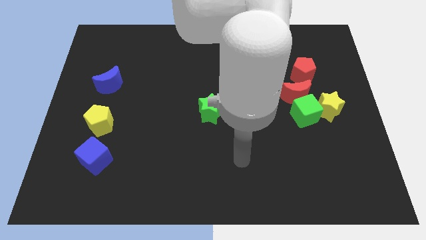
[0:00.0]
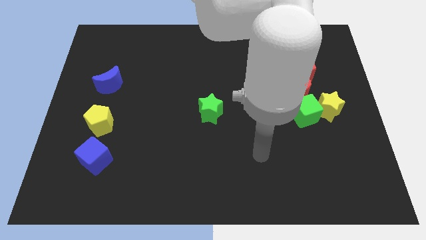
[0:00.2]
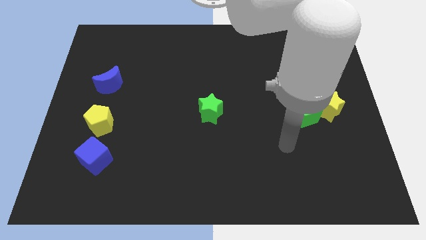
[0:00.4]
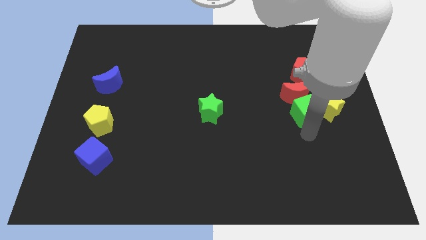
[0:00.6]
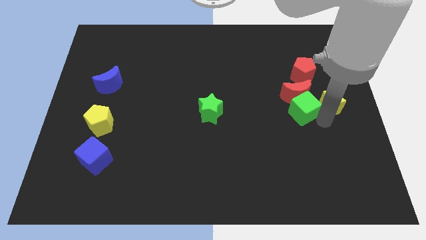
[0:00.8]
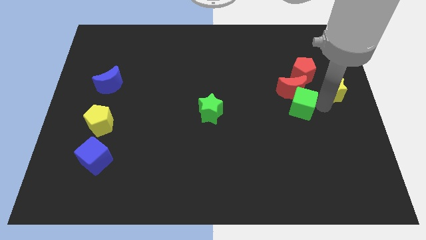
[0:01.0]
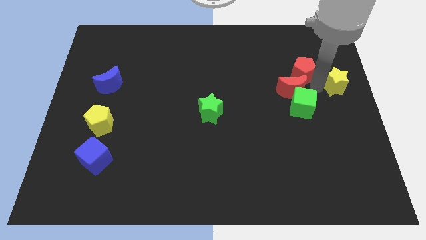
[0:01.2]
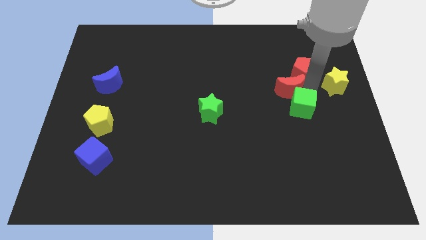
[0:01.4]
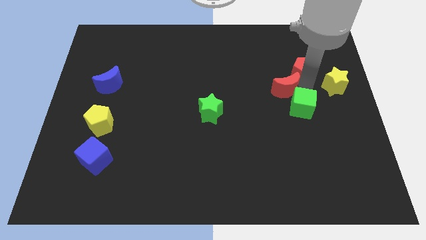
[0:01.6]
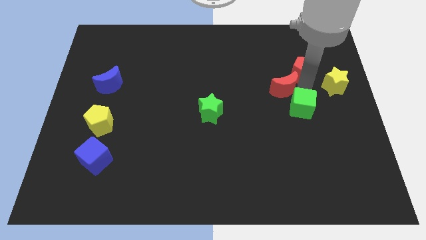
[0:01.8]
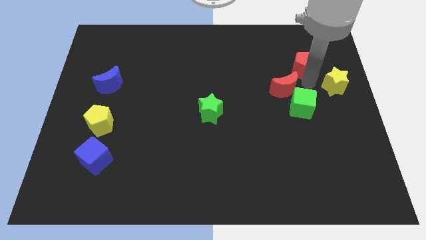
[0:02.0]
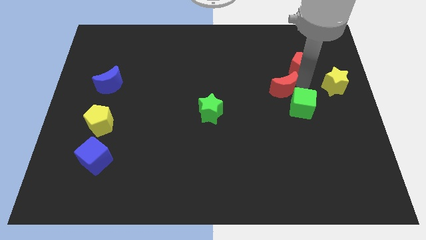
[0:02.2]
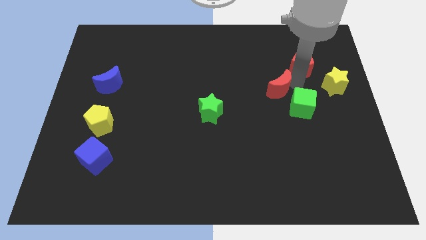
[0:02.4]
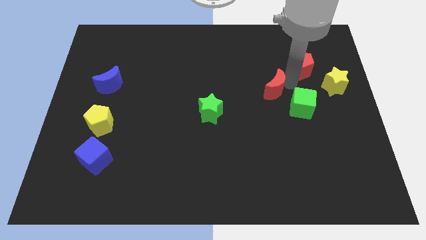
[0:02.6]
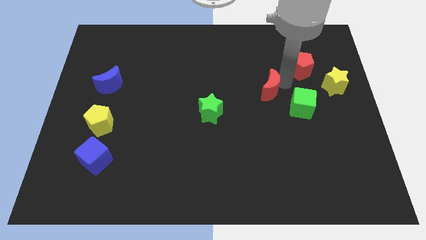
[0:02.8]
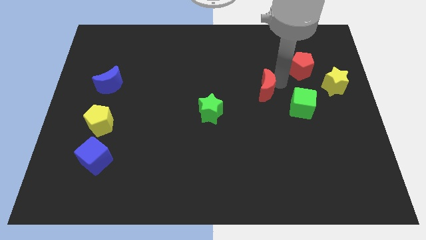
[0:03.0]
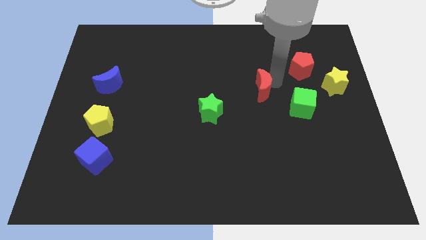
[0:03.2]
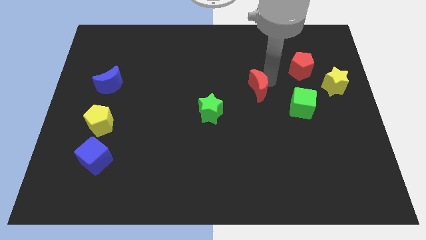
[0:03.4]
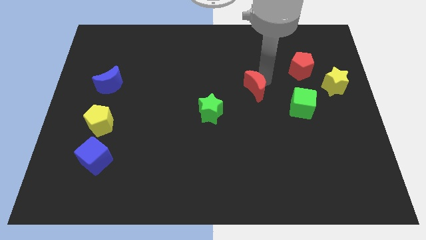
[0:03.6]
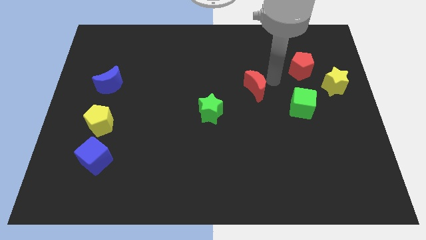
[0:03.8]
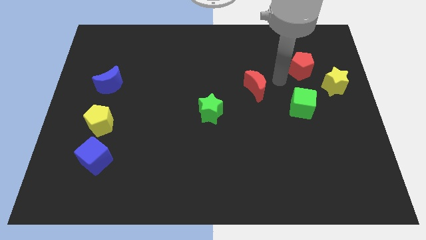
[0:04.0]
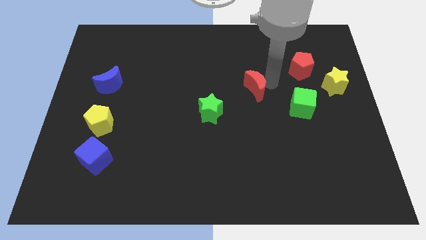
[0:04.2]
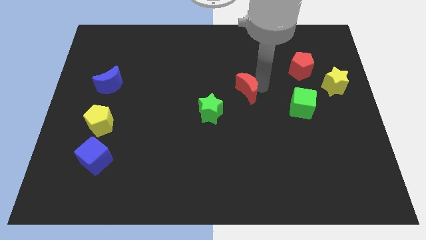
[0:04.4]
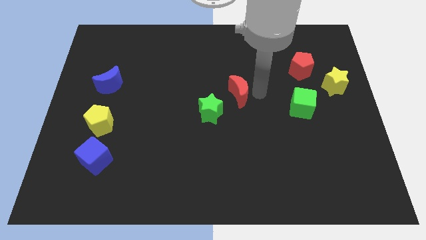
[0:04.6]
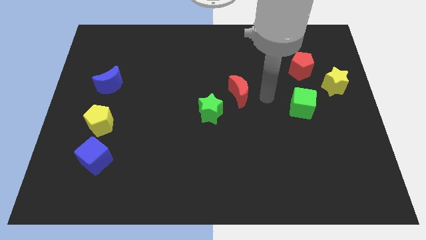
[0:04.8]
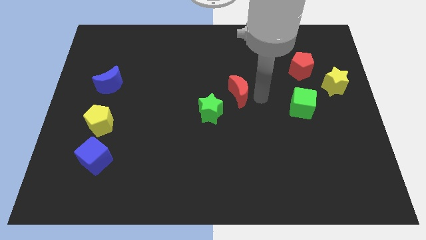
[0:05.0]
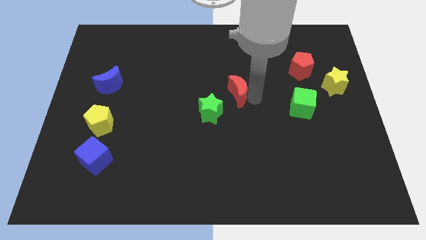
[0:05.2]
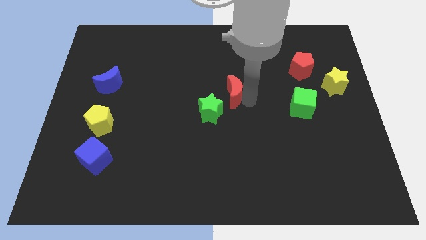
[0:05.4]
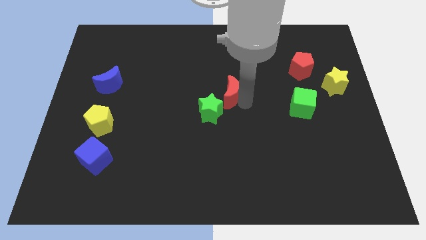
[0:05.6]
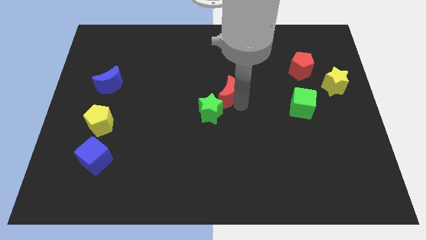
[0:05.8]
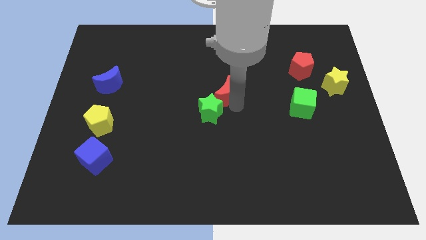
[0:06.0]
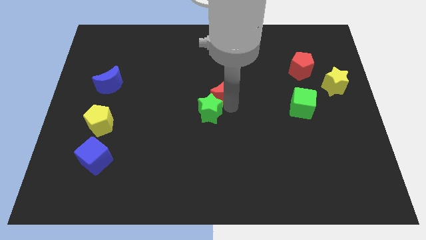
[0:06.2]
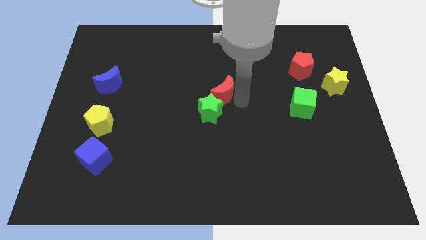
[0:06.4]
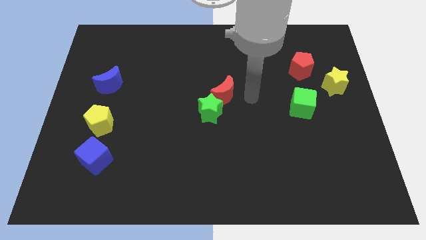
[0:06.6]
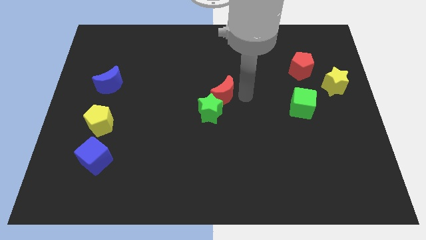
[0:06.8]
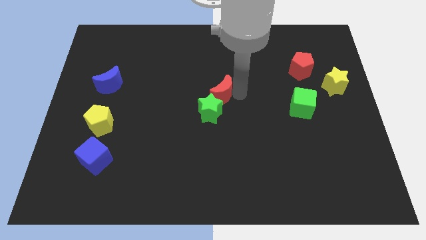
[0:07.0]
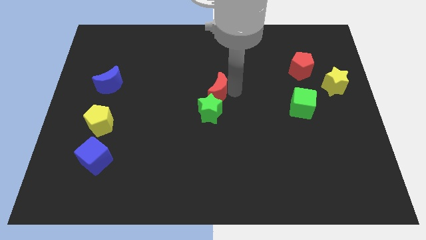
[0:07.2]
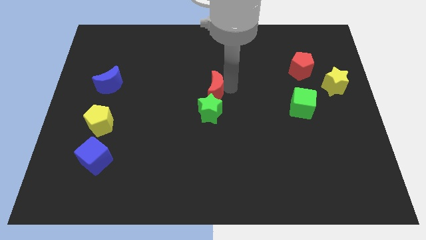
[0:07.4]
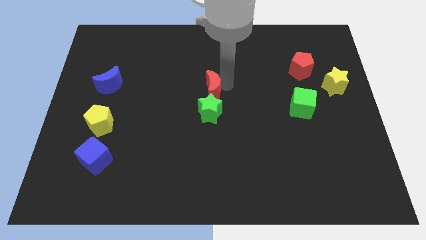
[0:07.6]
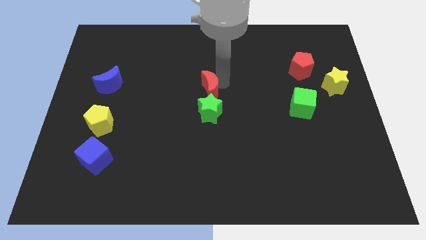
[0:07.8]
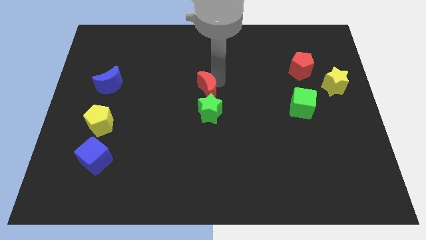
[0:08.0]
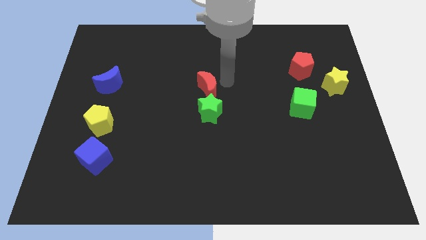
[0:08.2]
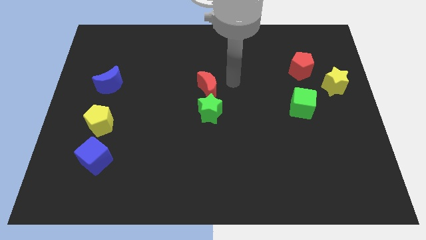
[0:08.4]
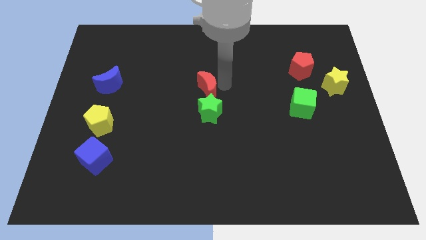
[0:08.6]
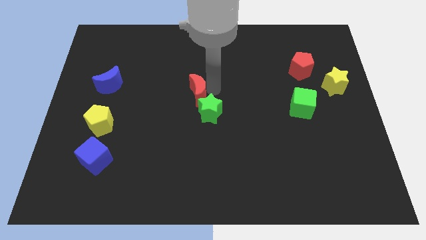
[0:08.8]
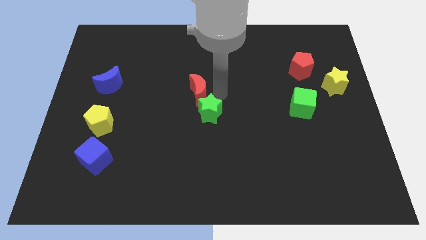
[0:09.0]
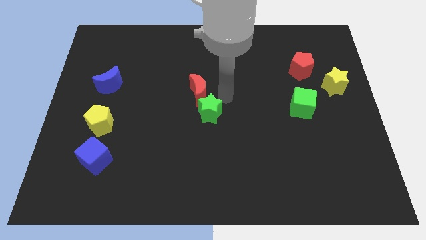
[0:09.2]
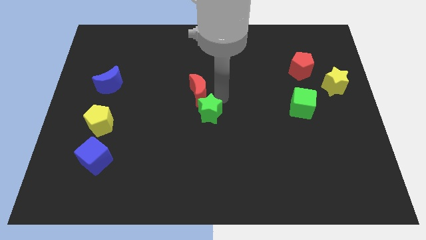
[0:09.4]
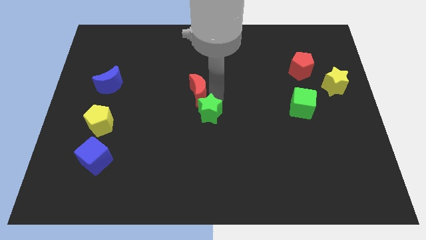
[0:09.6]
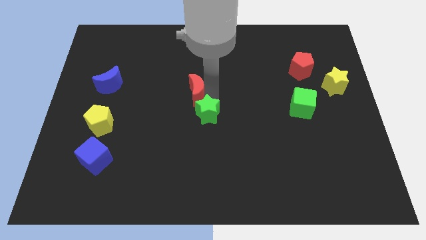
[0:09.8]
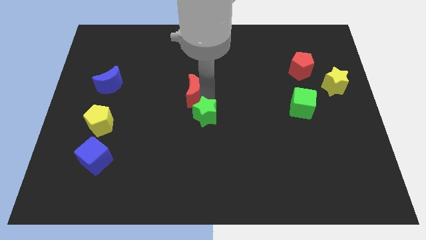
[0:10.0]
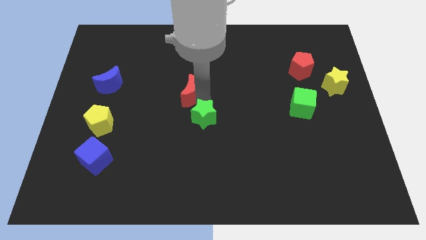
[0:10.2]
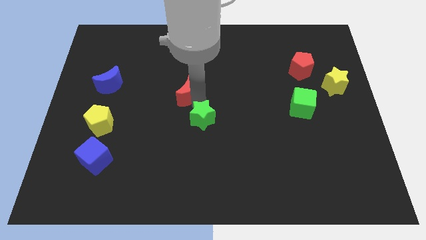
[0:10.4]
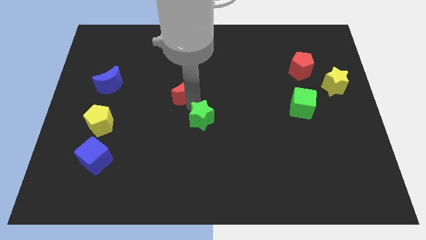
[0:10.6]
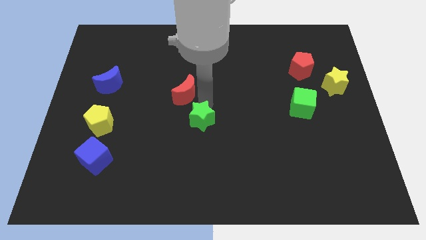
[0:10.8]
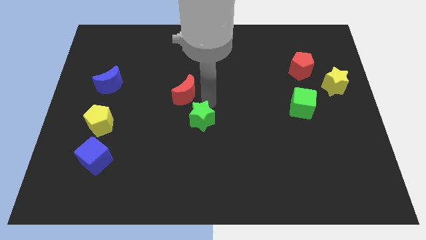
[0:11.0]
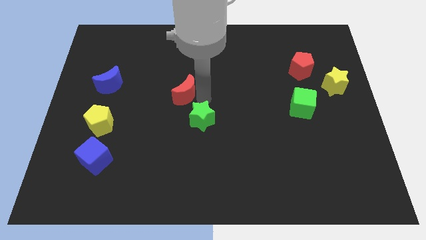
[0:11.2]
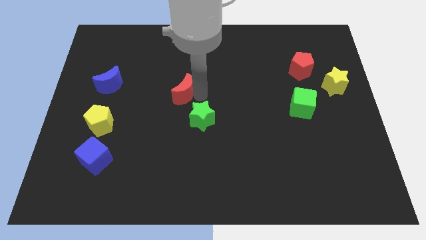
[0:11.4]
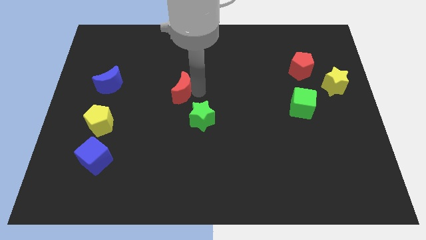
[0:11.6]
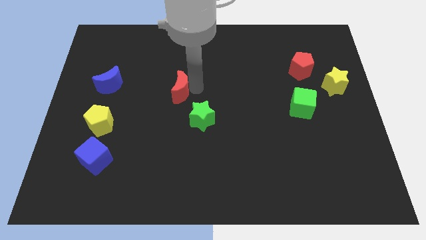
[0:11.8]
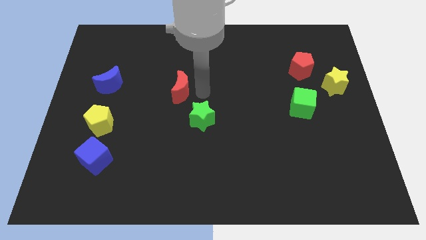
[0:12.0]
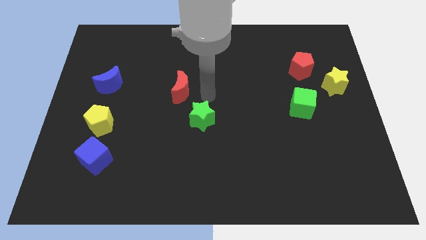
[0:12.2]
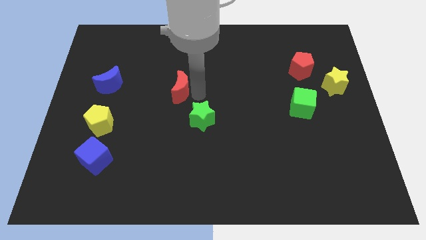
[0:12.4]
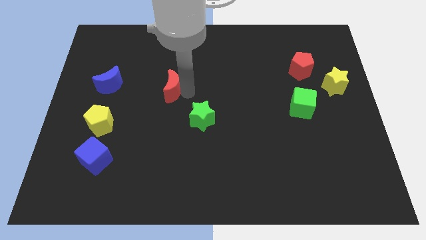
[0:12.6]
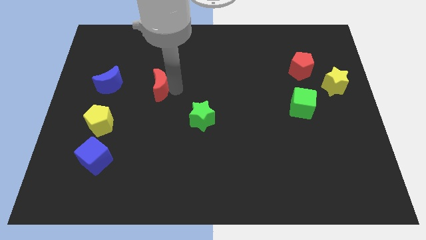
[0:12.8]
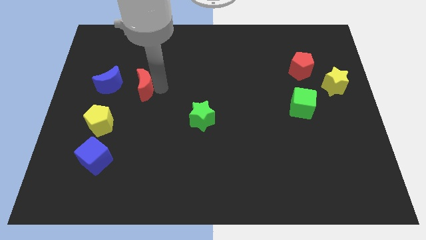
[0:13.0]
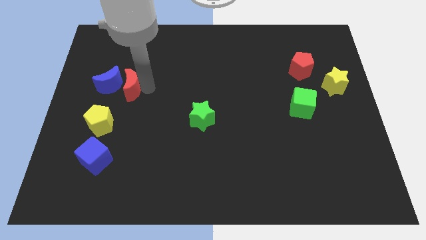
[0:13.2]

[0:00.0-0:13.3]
slide the red moon towards the blue moon

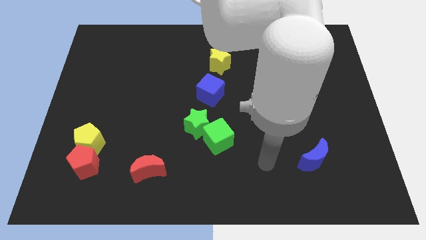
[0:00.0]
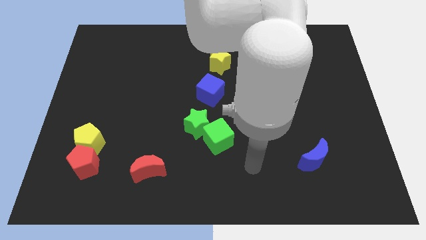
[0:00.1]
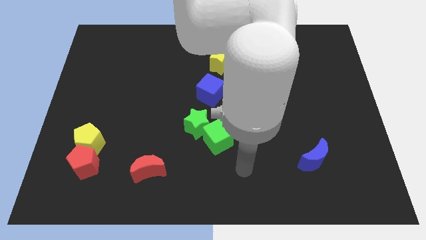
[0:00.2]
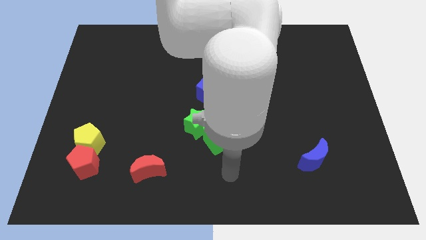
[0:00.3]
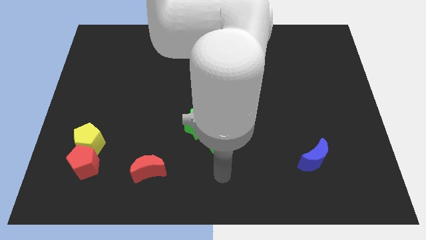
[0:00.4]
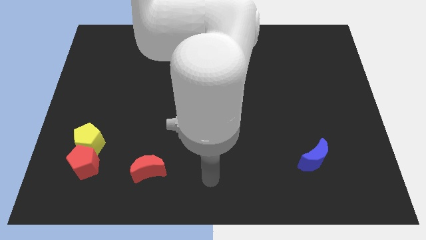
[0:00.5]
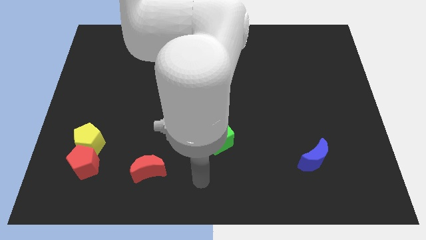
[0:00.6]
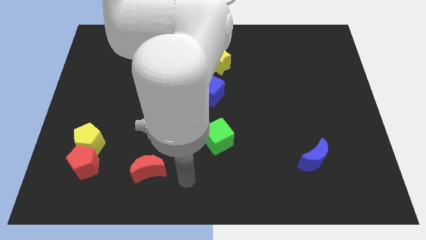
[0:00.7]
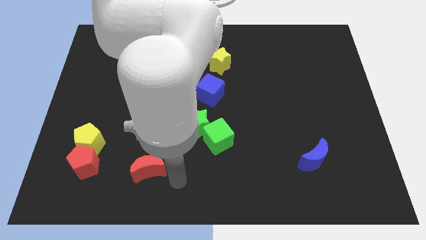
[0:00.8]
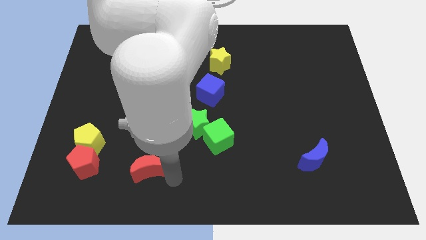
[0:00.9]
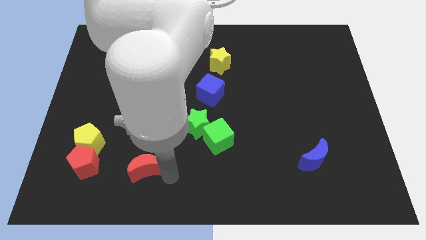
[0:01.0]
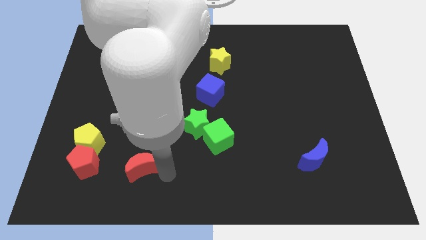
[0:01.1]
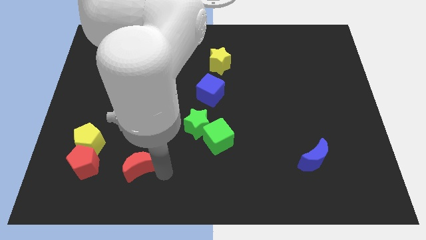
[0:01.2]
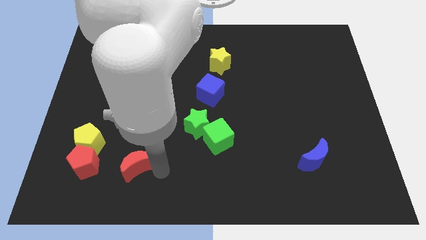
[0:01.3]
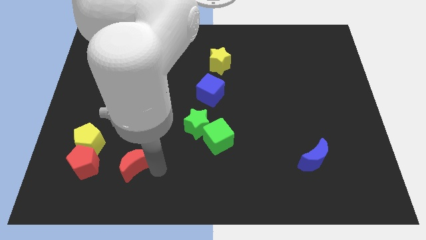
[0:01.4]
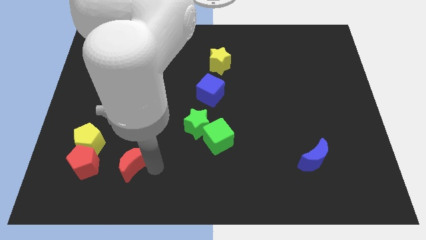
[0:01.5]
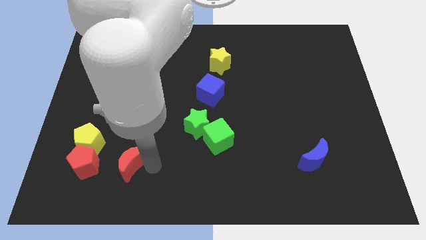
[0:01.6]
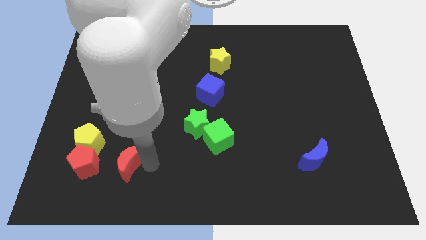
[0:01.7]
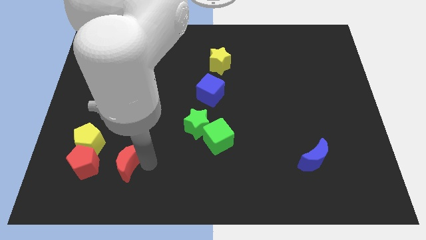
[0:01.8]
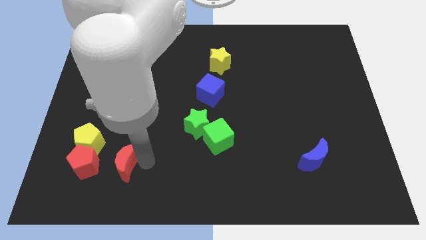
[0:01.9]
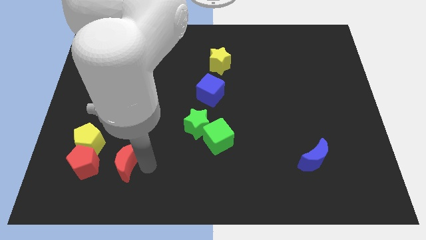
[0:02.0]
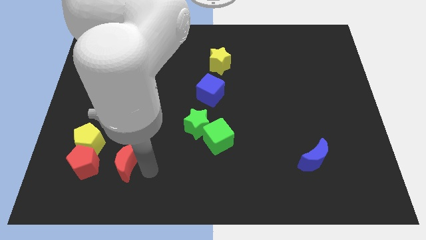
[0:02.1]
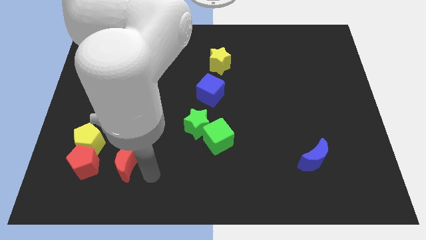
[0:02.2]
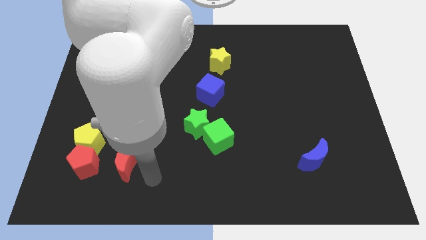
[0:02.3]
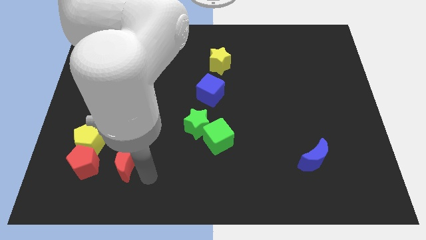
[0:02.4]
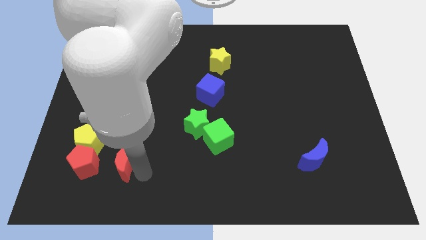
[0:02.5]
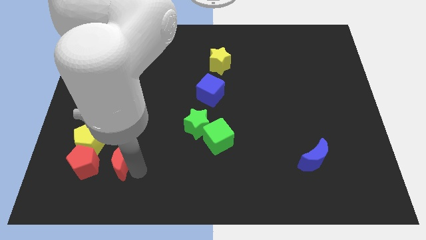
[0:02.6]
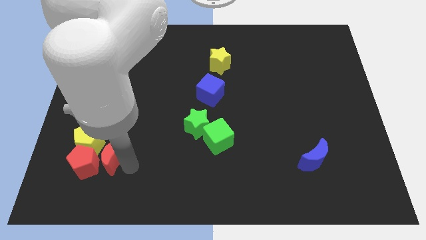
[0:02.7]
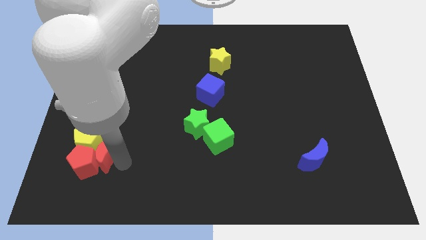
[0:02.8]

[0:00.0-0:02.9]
put the red moon to the yellow pentagon
